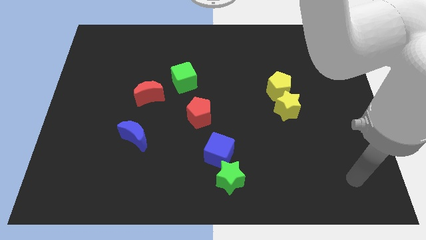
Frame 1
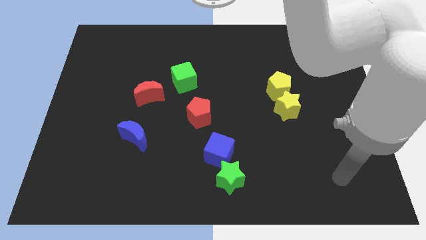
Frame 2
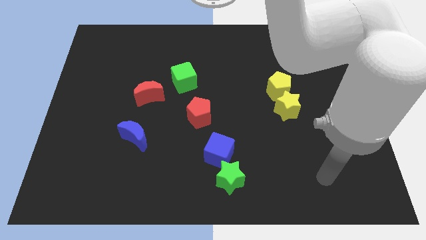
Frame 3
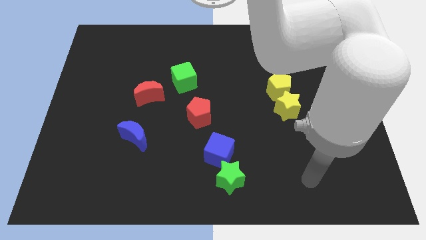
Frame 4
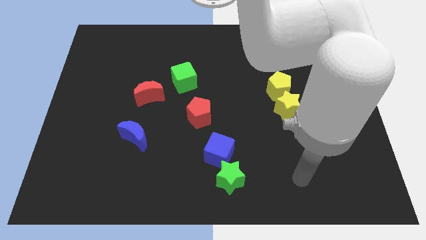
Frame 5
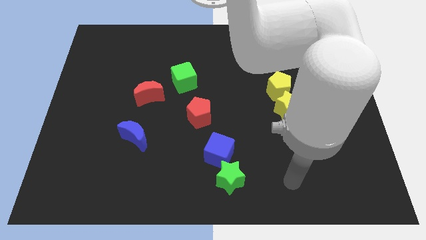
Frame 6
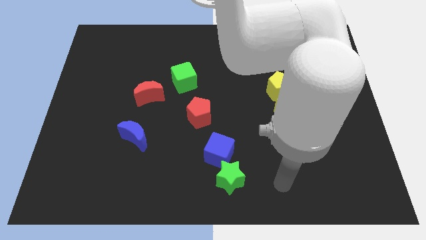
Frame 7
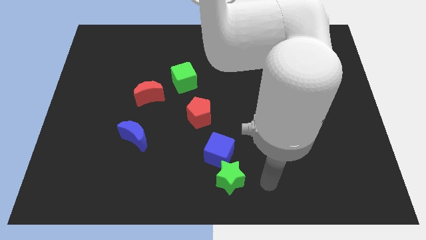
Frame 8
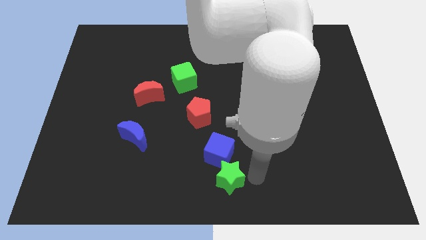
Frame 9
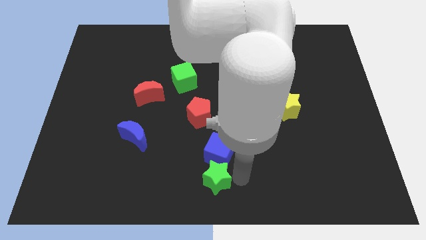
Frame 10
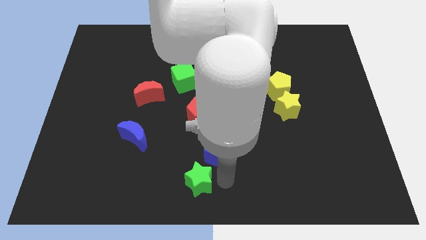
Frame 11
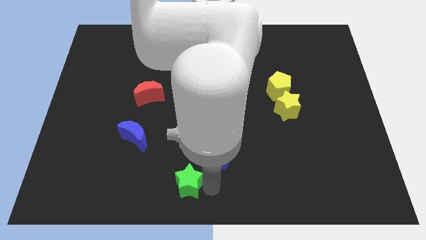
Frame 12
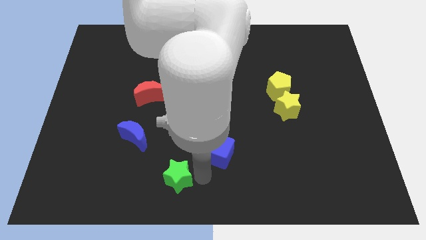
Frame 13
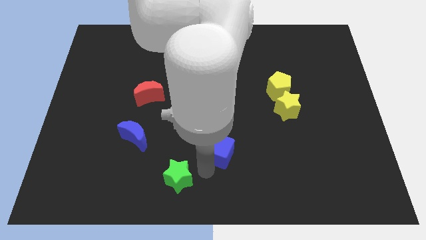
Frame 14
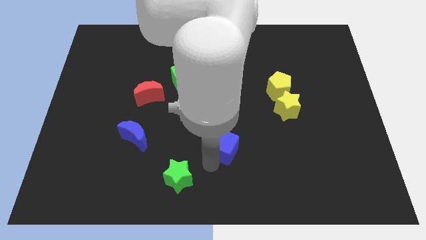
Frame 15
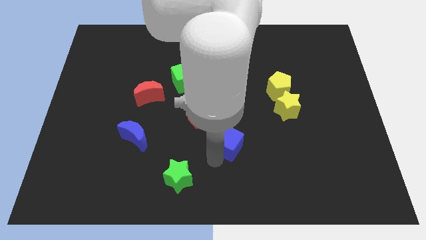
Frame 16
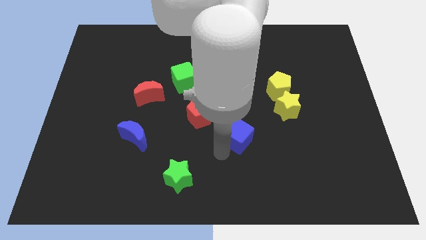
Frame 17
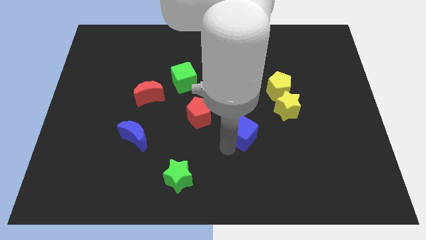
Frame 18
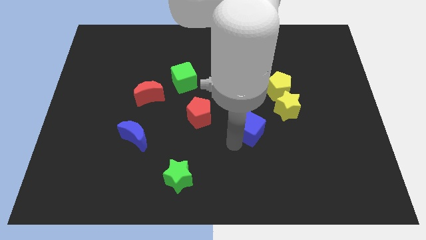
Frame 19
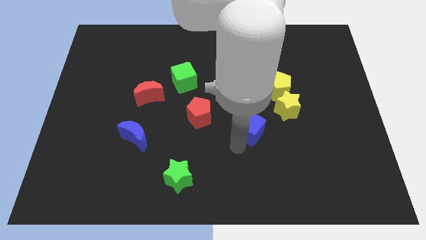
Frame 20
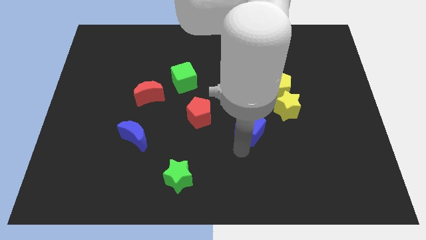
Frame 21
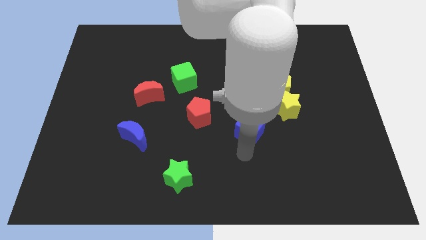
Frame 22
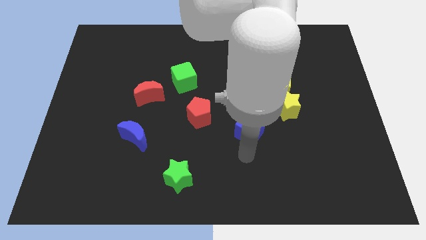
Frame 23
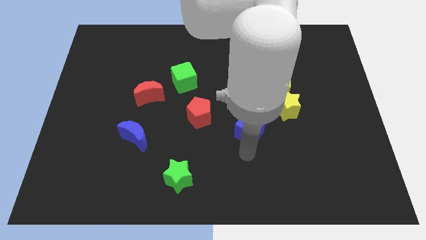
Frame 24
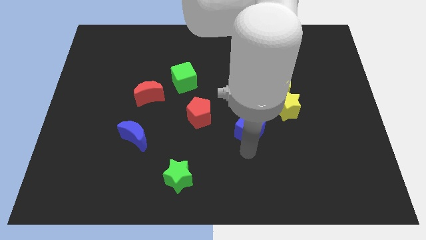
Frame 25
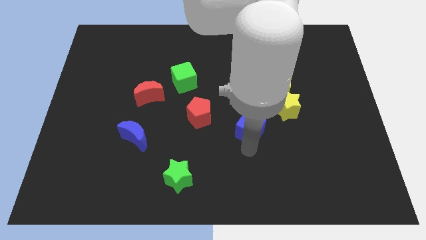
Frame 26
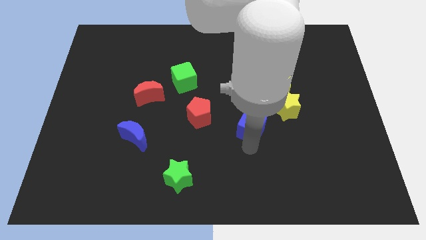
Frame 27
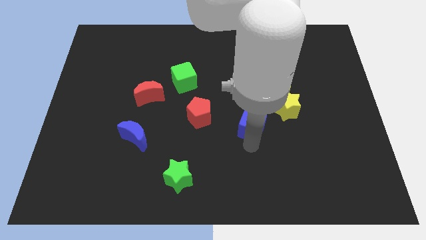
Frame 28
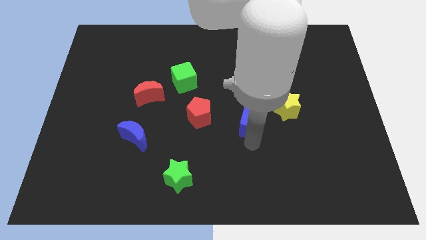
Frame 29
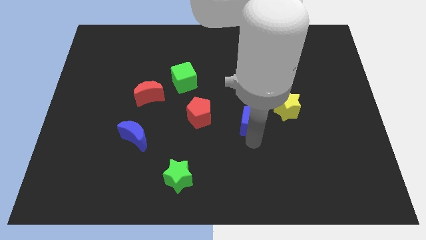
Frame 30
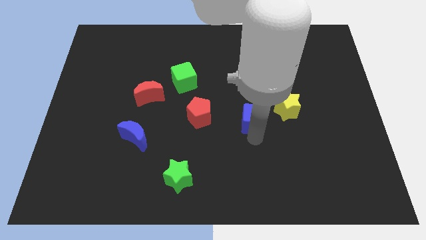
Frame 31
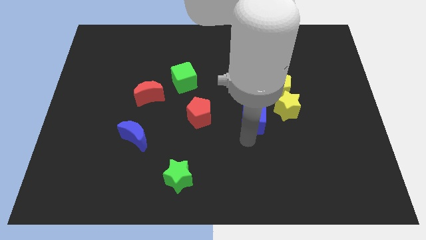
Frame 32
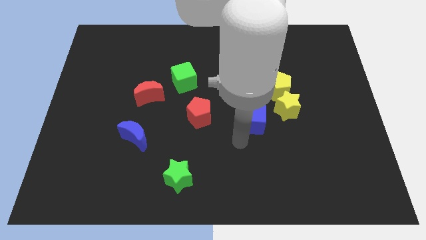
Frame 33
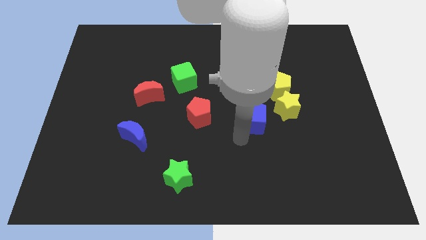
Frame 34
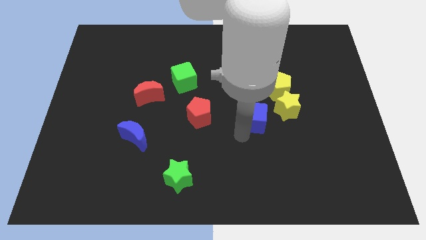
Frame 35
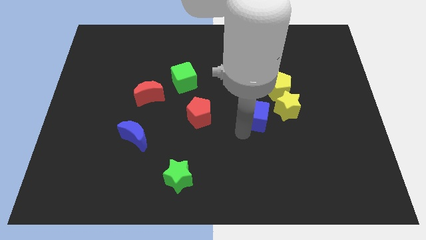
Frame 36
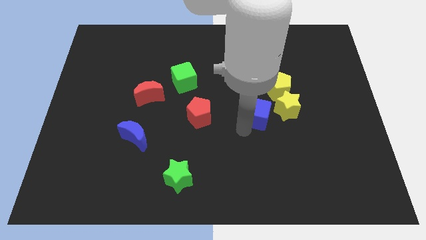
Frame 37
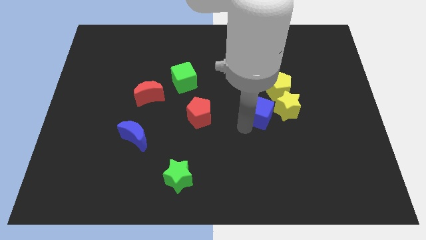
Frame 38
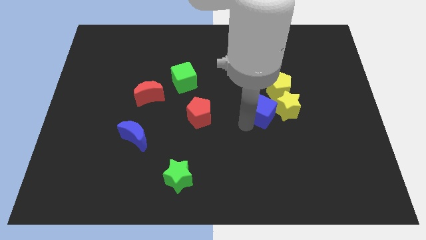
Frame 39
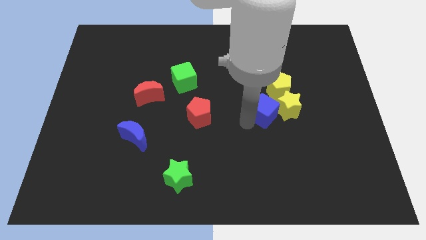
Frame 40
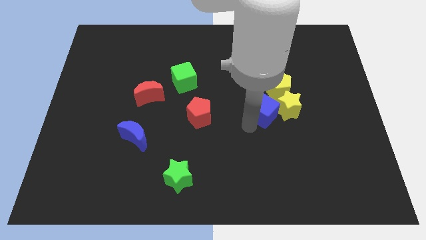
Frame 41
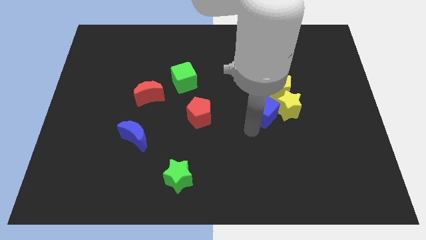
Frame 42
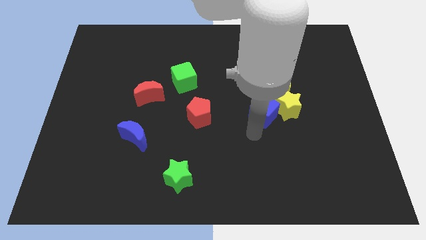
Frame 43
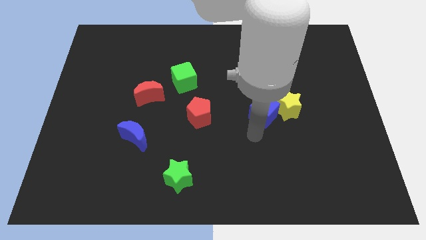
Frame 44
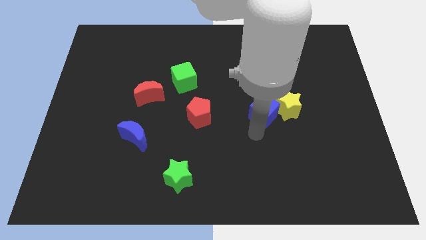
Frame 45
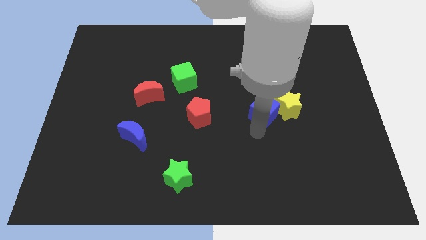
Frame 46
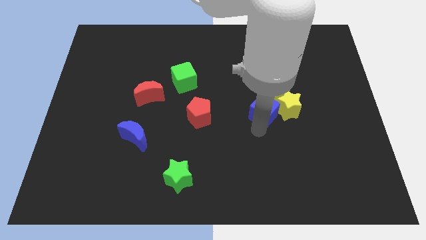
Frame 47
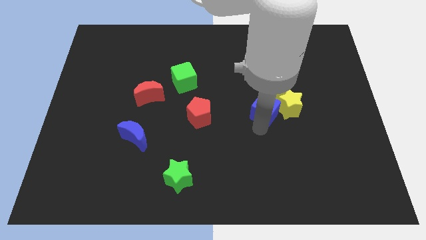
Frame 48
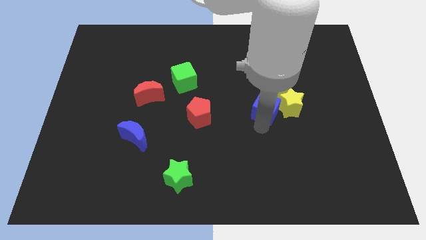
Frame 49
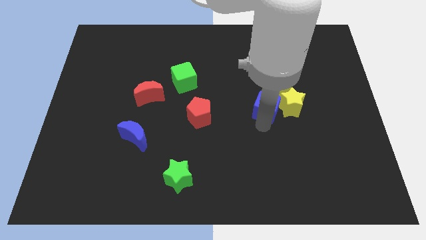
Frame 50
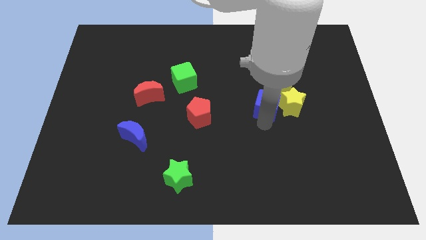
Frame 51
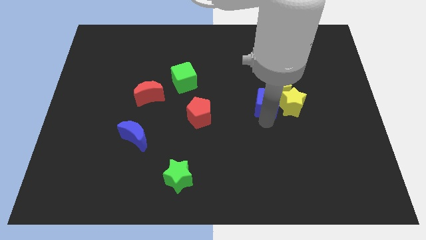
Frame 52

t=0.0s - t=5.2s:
move the blue cube next to the yellow pentagon

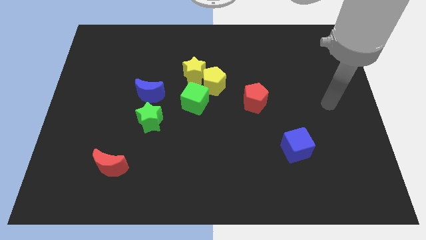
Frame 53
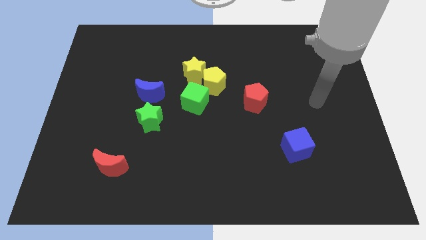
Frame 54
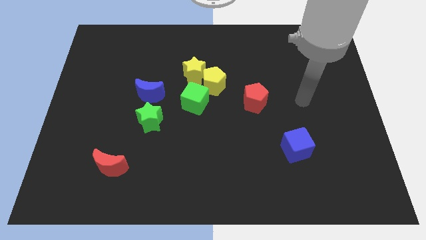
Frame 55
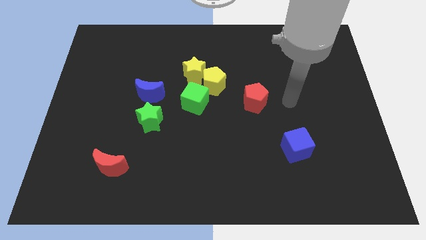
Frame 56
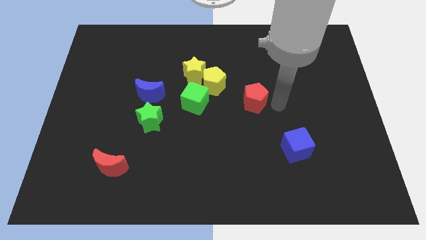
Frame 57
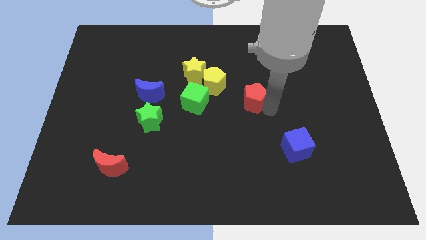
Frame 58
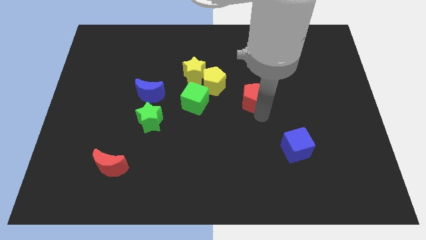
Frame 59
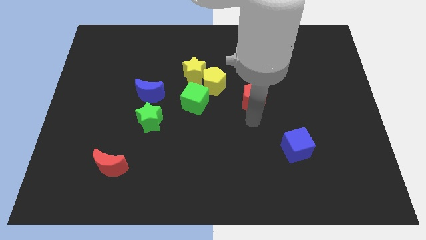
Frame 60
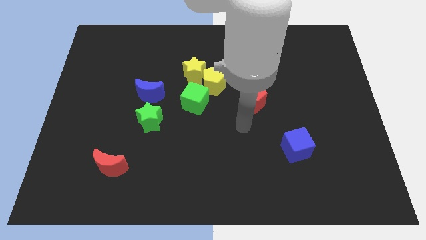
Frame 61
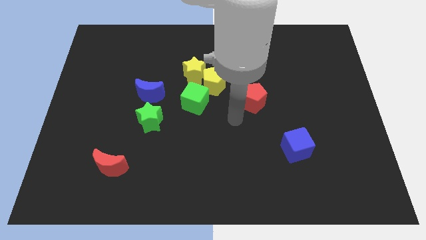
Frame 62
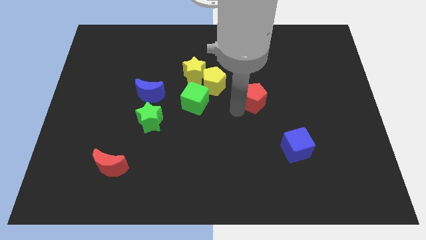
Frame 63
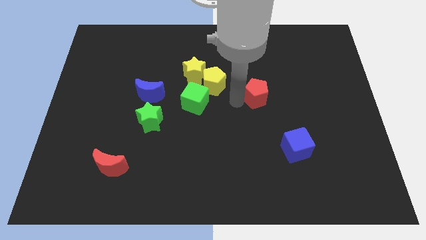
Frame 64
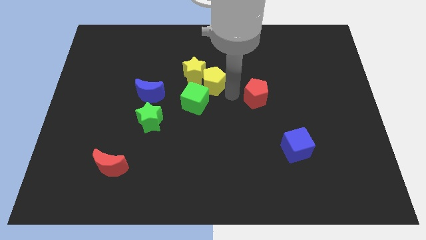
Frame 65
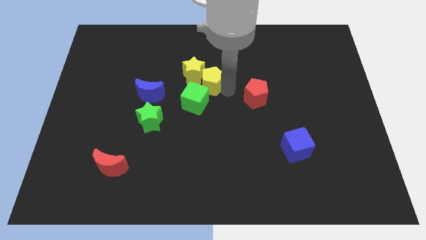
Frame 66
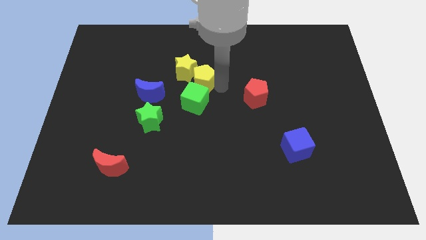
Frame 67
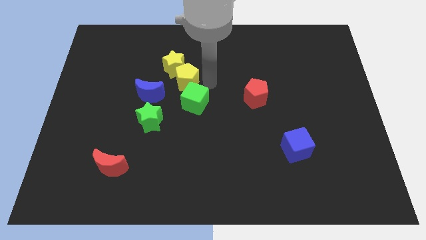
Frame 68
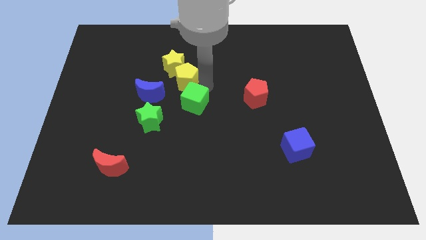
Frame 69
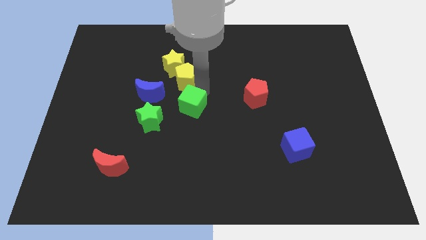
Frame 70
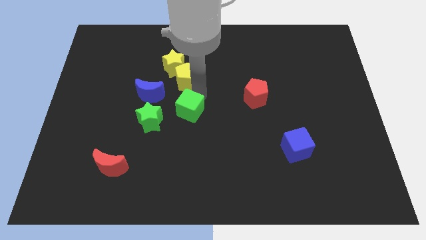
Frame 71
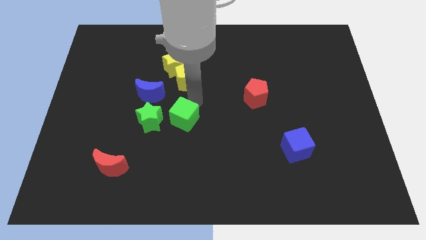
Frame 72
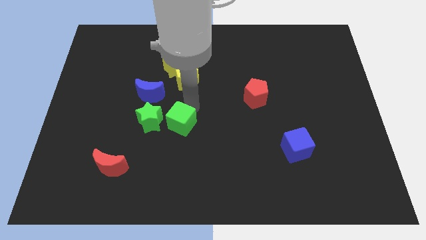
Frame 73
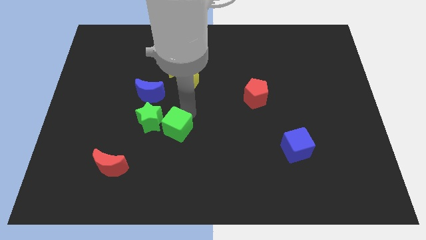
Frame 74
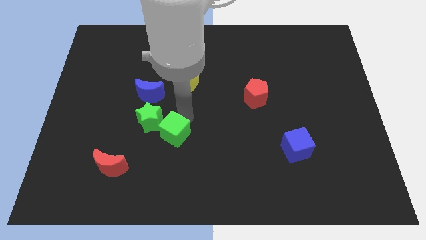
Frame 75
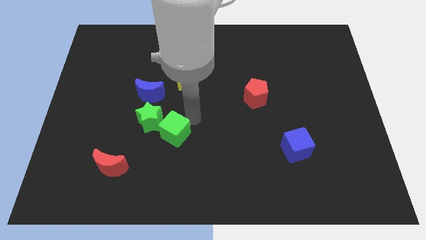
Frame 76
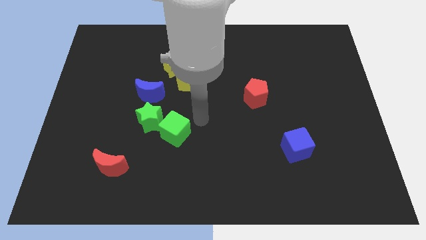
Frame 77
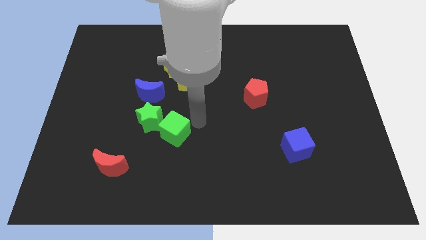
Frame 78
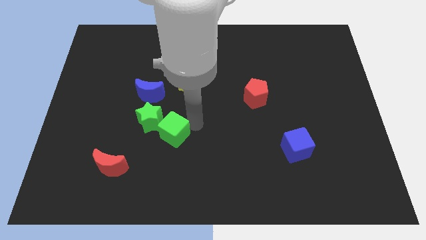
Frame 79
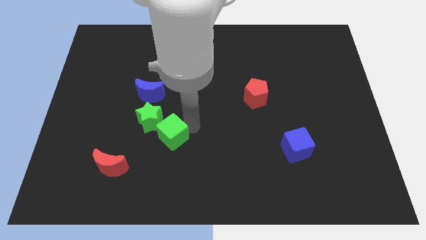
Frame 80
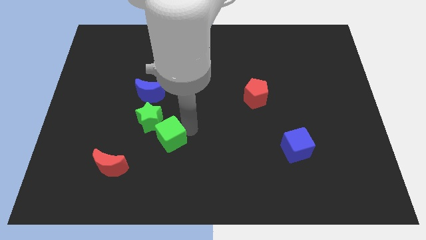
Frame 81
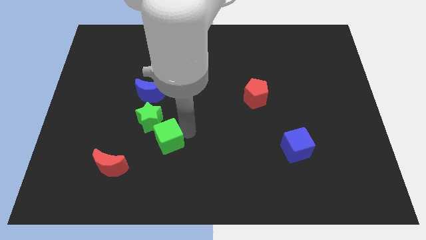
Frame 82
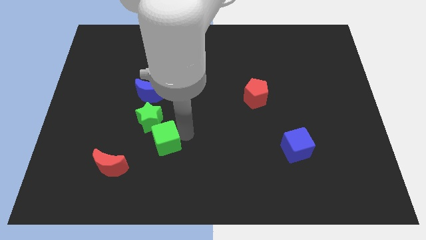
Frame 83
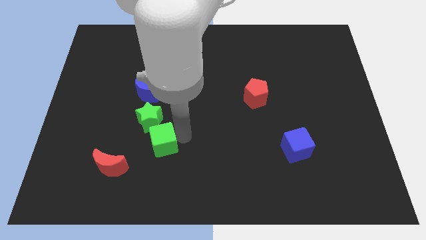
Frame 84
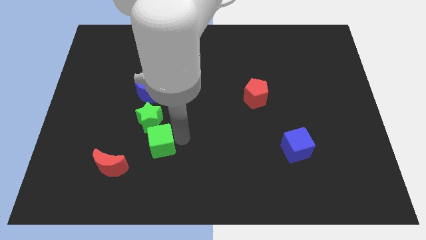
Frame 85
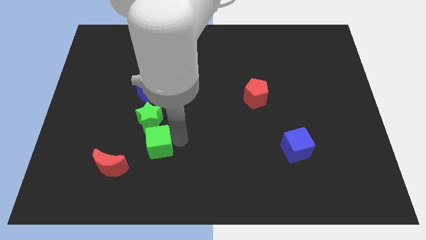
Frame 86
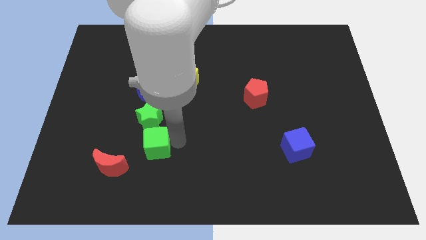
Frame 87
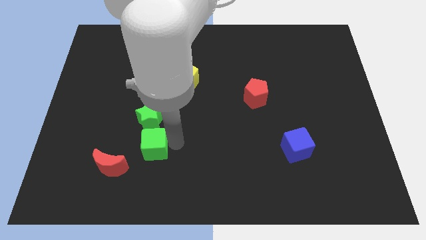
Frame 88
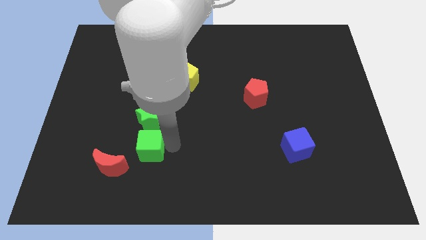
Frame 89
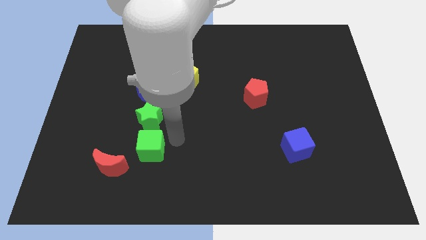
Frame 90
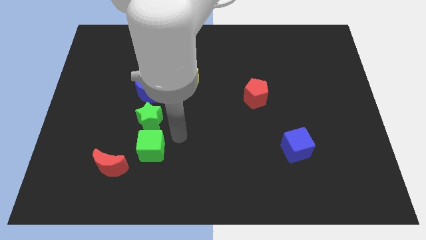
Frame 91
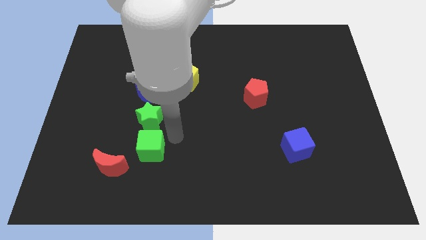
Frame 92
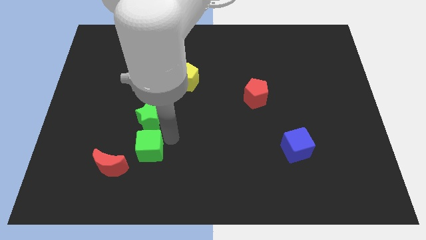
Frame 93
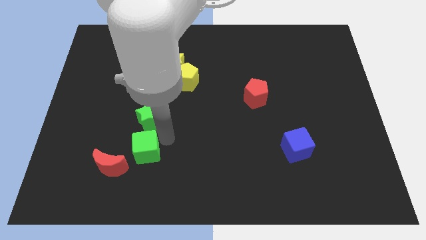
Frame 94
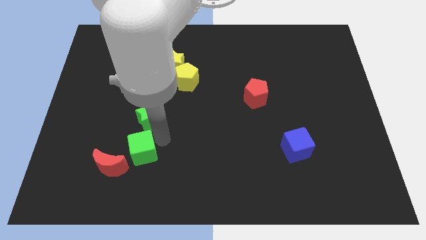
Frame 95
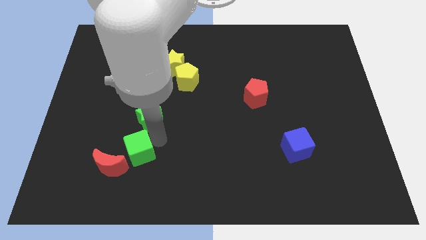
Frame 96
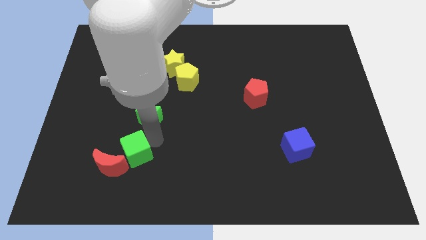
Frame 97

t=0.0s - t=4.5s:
push the green cube close to the red moon
